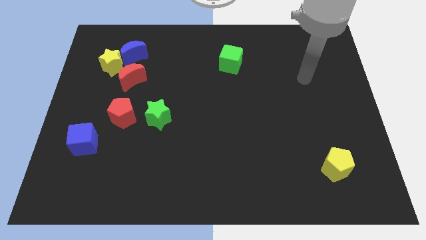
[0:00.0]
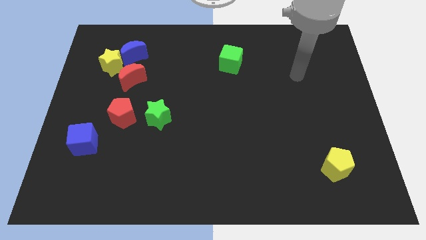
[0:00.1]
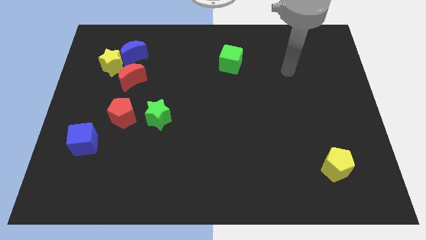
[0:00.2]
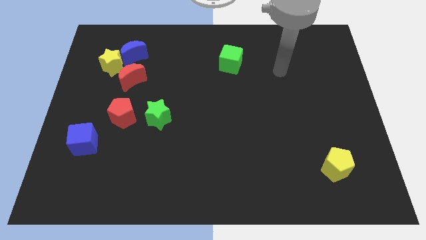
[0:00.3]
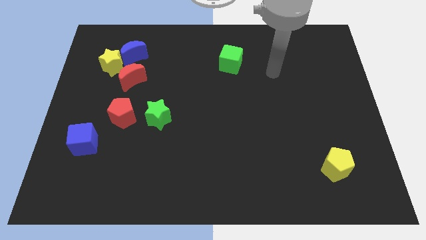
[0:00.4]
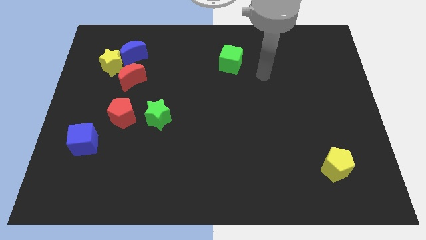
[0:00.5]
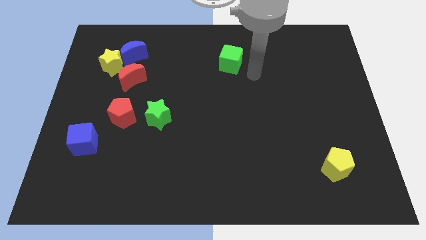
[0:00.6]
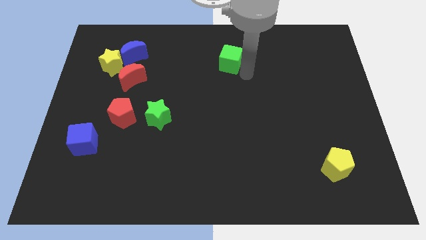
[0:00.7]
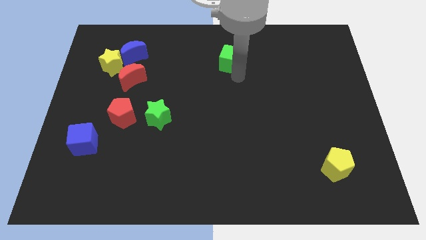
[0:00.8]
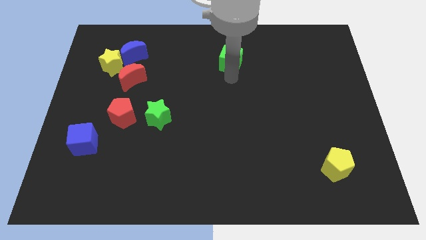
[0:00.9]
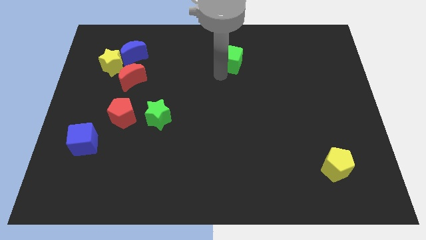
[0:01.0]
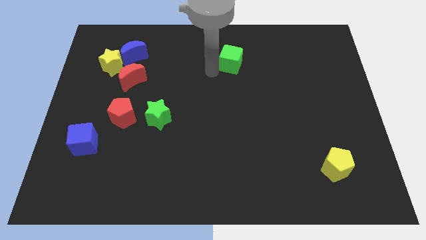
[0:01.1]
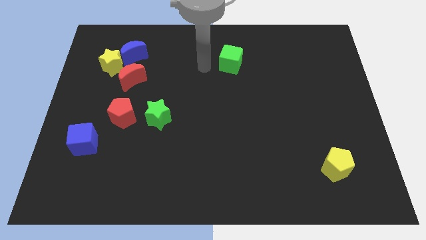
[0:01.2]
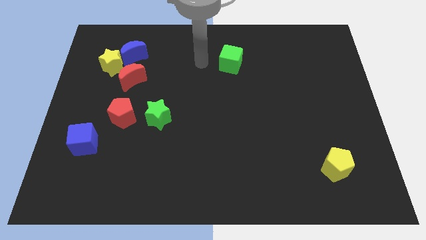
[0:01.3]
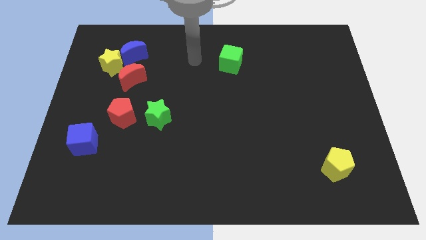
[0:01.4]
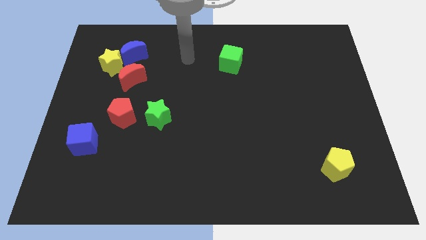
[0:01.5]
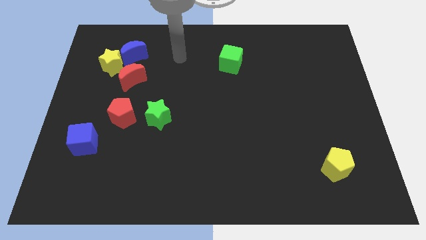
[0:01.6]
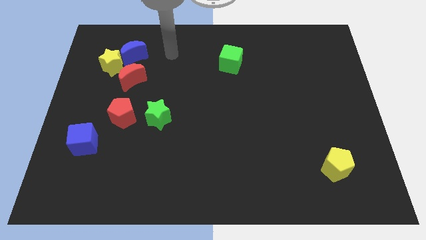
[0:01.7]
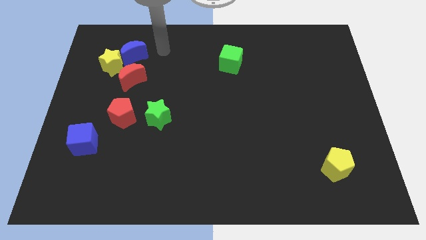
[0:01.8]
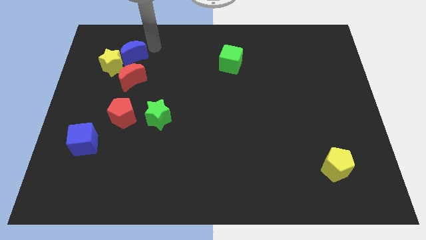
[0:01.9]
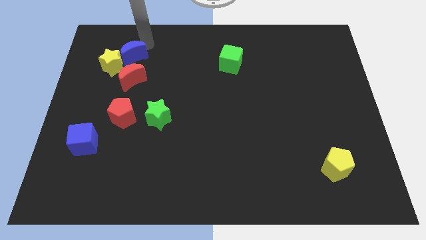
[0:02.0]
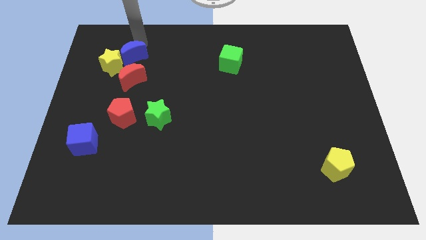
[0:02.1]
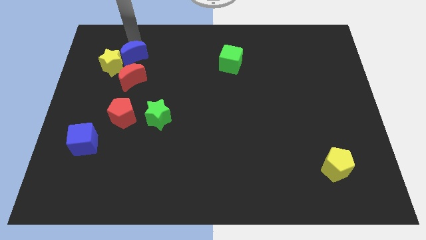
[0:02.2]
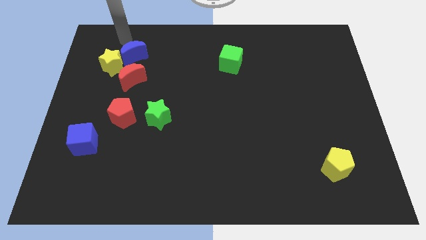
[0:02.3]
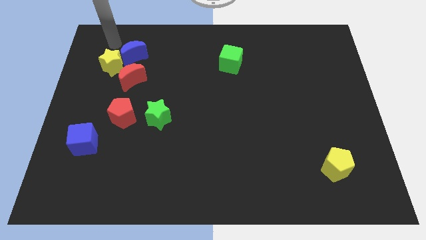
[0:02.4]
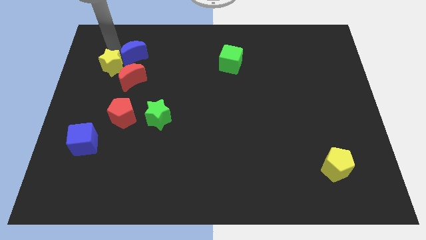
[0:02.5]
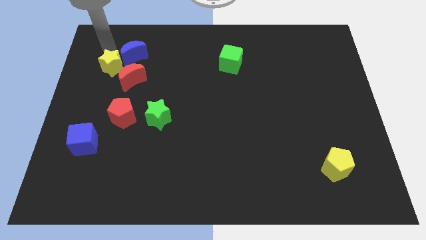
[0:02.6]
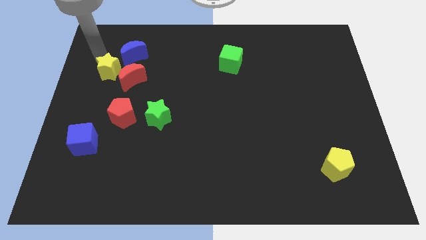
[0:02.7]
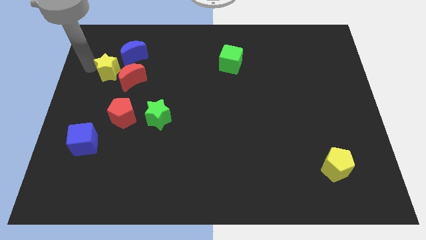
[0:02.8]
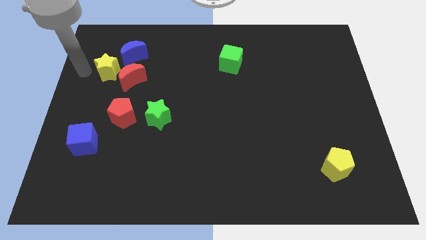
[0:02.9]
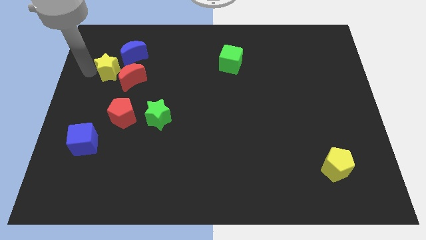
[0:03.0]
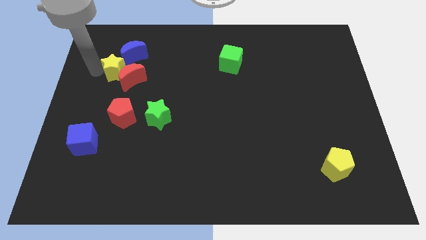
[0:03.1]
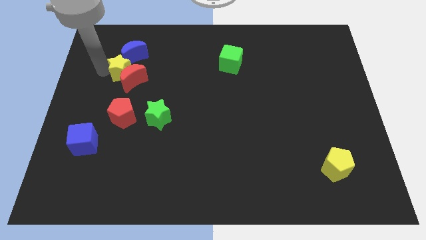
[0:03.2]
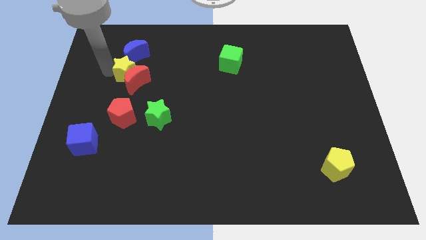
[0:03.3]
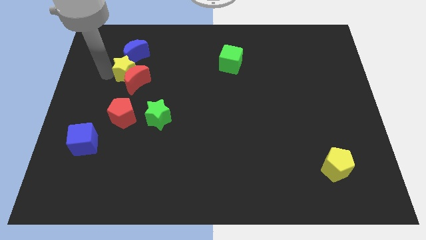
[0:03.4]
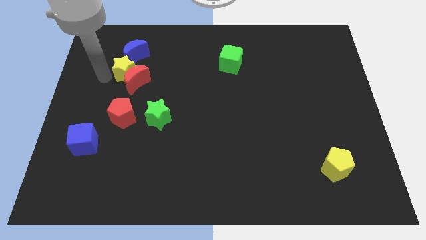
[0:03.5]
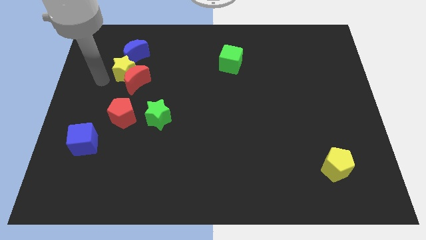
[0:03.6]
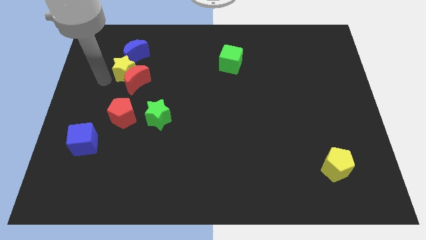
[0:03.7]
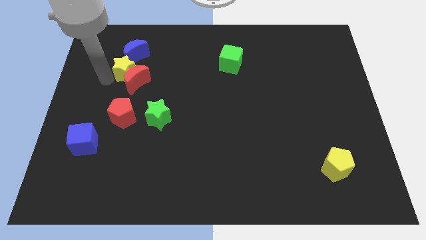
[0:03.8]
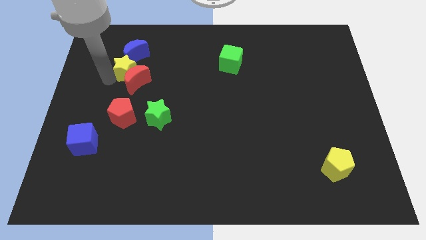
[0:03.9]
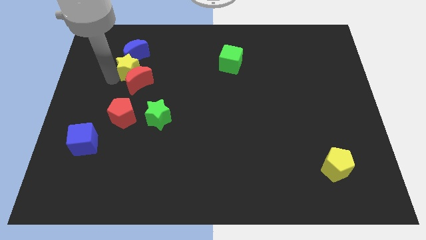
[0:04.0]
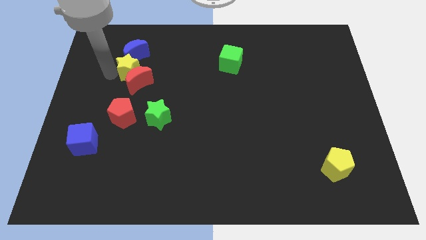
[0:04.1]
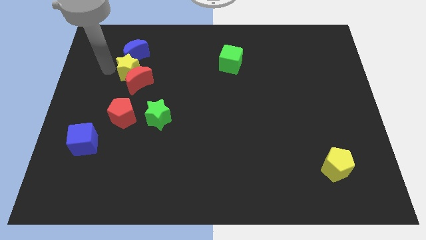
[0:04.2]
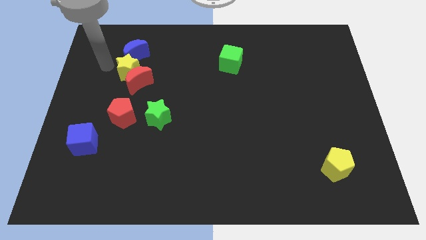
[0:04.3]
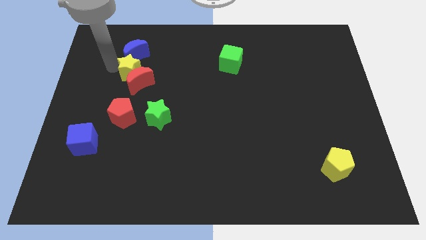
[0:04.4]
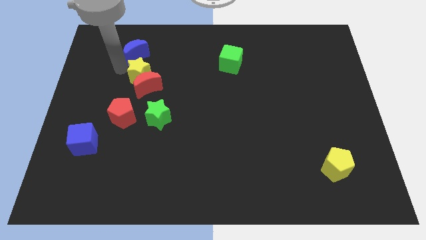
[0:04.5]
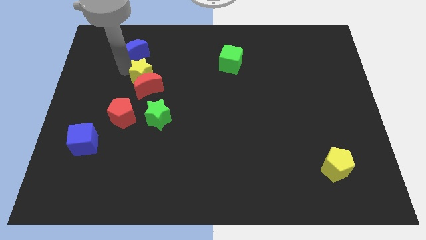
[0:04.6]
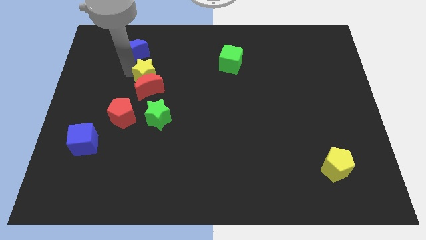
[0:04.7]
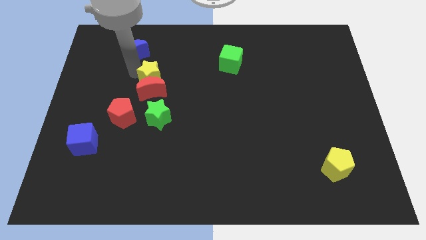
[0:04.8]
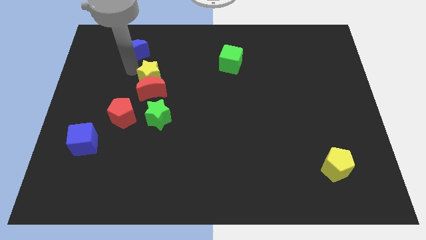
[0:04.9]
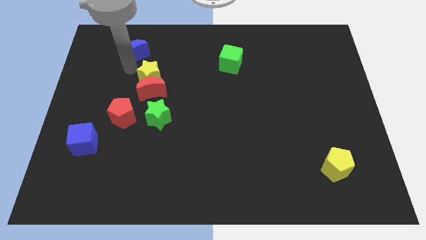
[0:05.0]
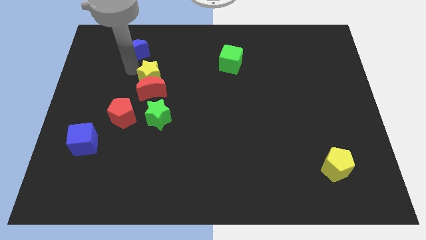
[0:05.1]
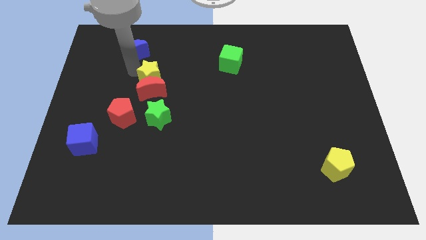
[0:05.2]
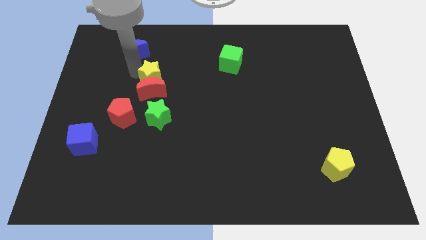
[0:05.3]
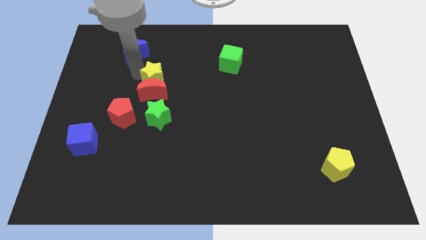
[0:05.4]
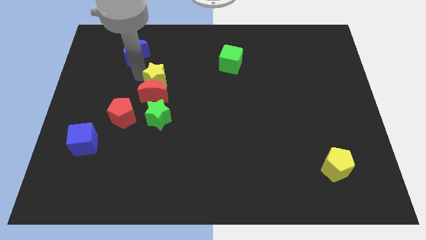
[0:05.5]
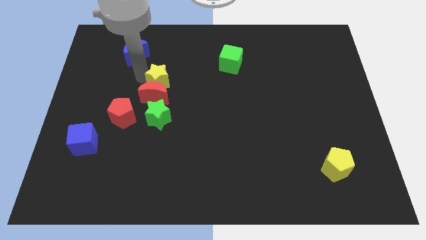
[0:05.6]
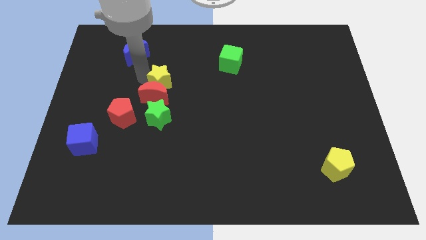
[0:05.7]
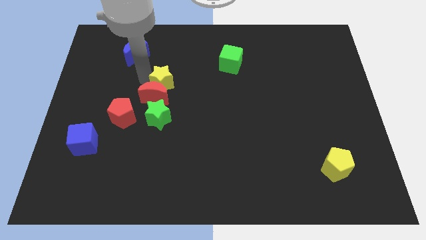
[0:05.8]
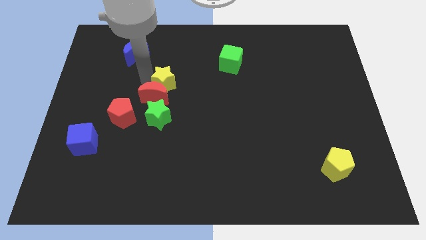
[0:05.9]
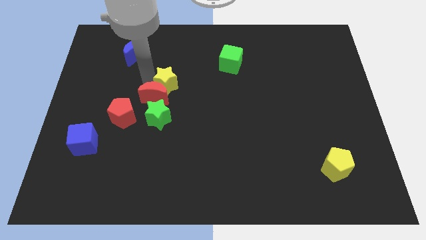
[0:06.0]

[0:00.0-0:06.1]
put the yellow star to the middle of the board

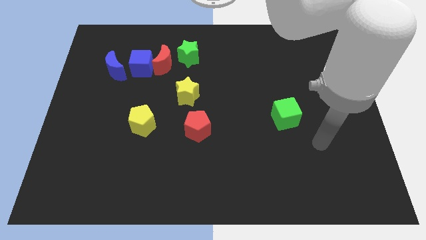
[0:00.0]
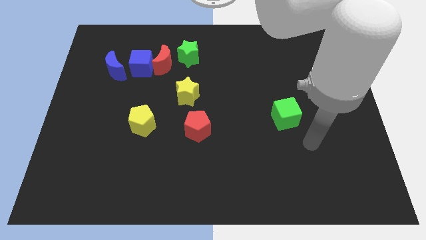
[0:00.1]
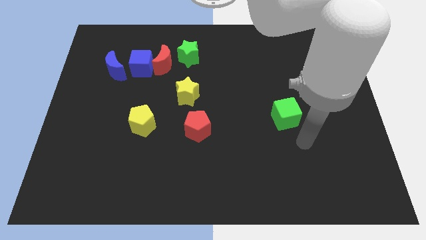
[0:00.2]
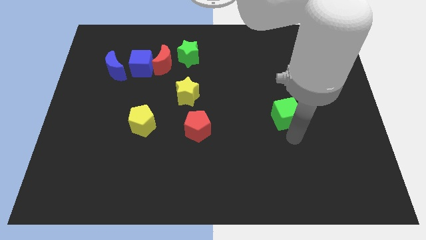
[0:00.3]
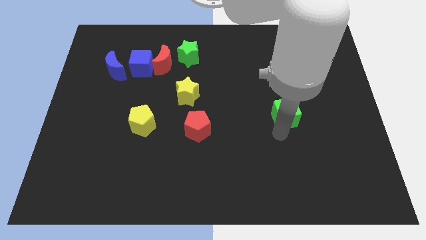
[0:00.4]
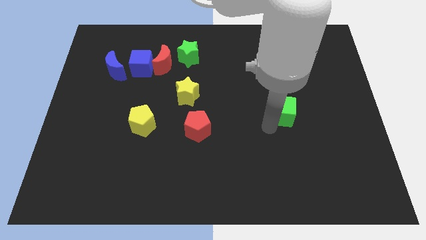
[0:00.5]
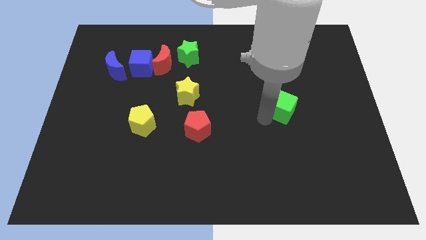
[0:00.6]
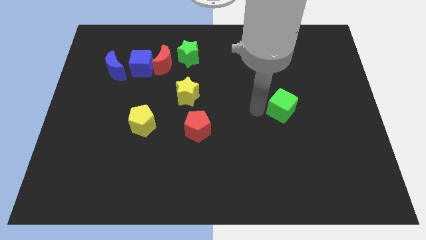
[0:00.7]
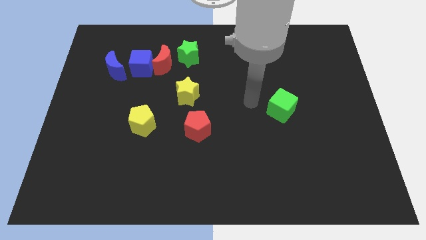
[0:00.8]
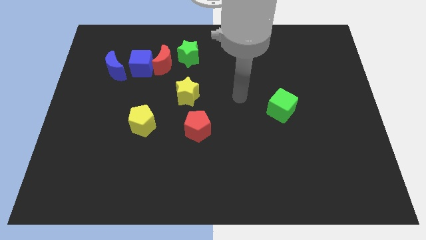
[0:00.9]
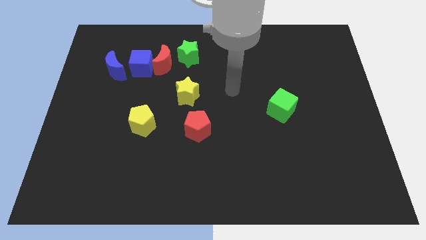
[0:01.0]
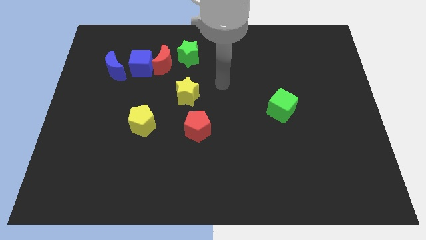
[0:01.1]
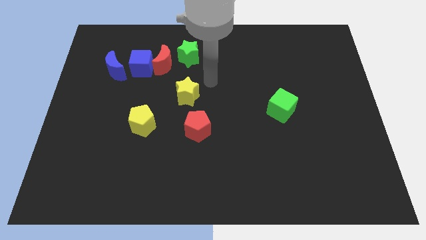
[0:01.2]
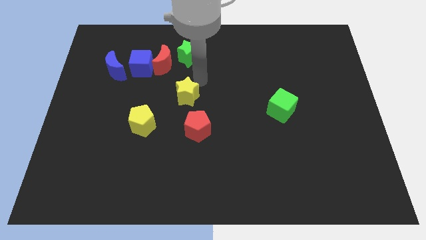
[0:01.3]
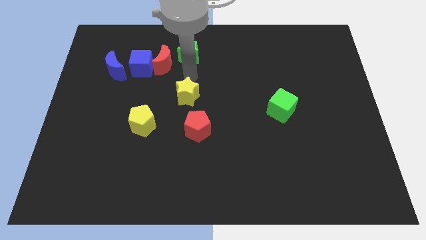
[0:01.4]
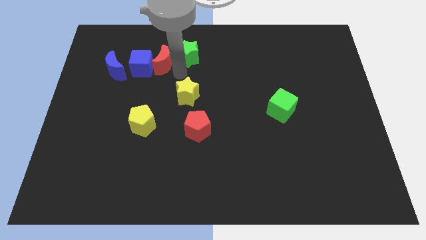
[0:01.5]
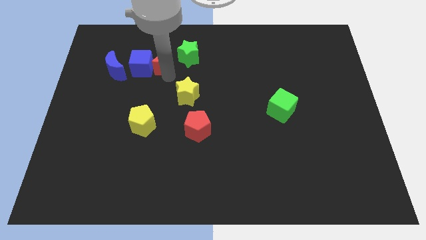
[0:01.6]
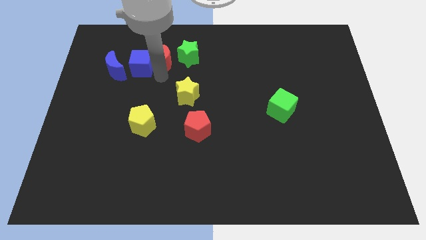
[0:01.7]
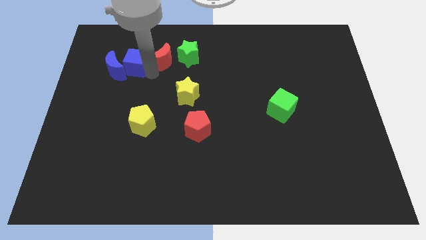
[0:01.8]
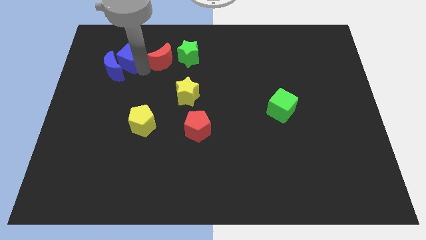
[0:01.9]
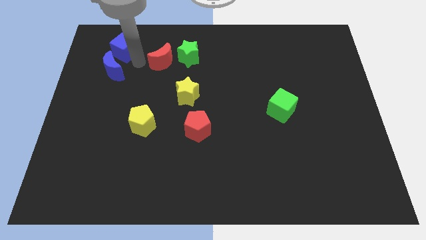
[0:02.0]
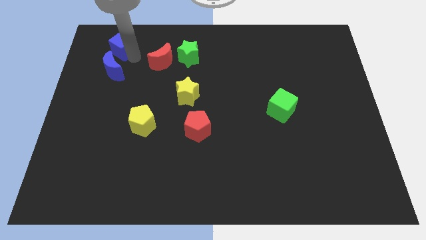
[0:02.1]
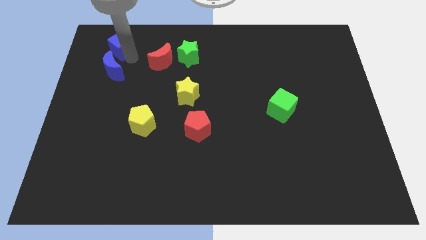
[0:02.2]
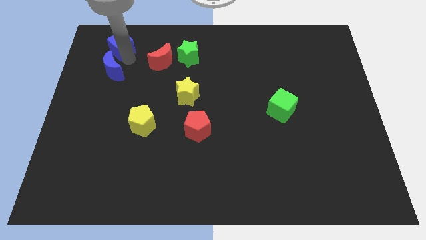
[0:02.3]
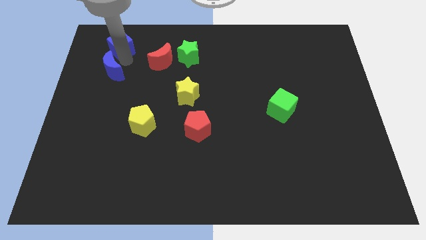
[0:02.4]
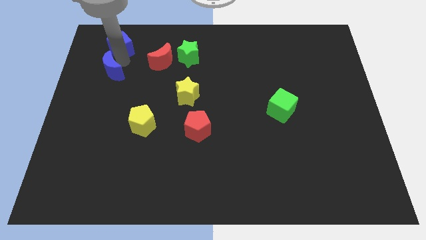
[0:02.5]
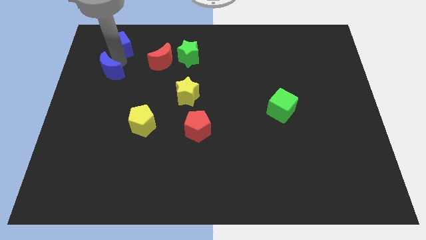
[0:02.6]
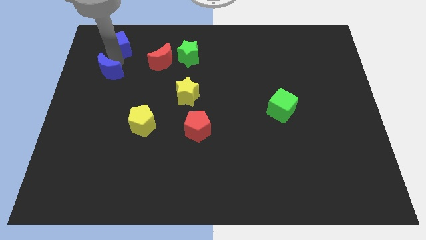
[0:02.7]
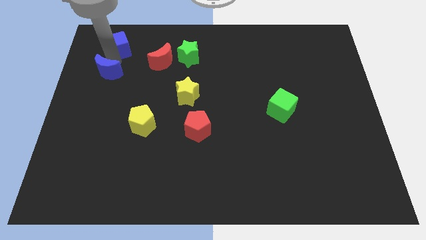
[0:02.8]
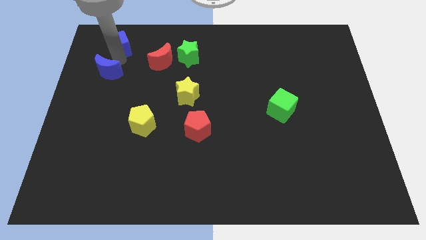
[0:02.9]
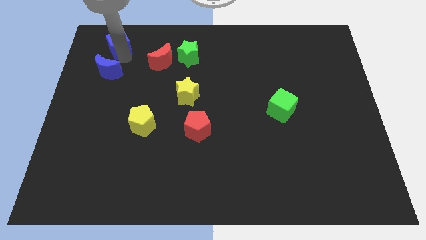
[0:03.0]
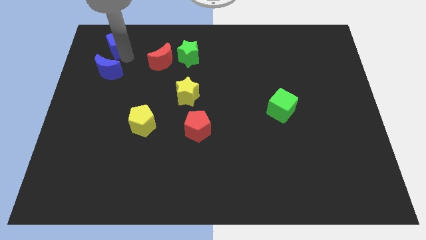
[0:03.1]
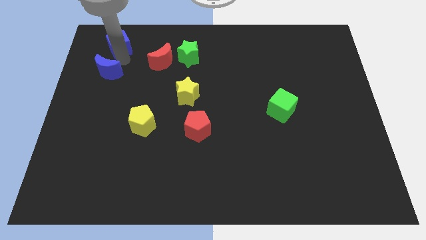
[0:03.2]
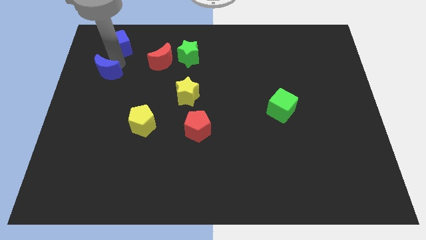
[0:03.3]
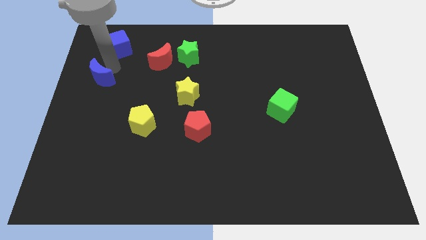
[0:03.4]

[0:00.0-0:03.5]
move the blue moon to the left side of the board
